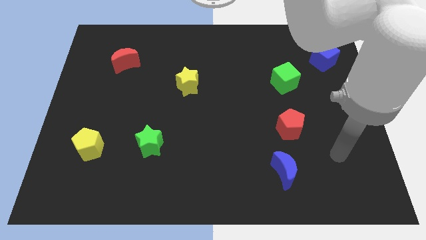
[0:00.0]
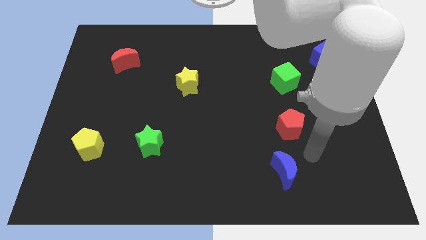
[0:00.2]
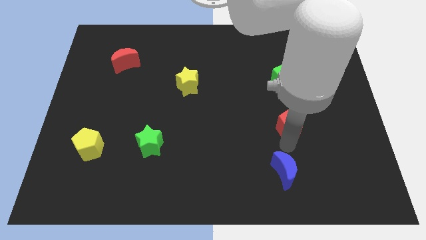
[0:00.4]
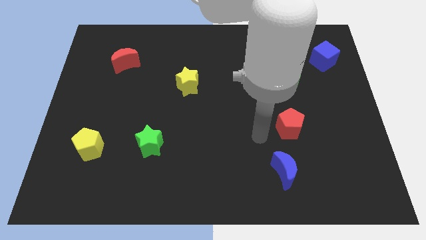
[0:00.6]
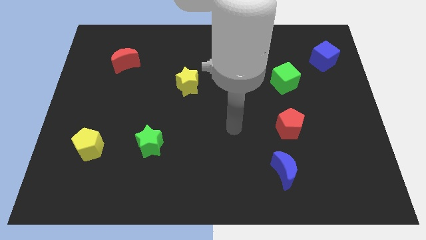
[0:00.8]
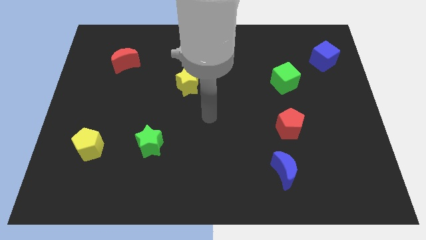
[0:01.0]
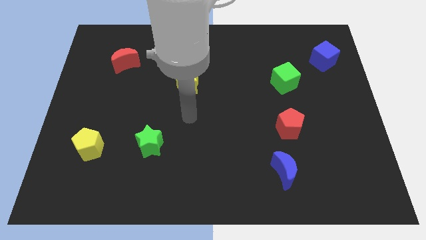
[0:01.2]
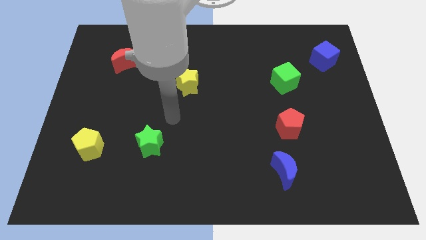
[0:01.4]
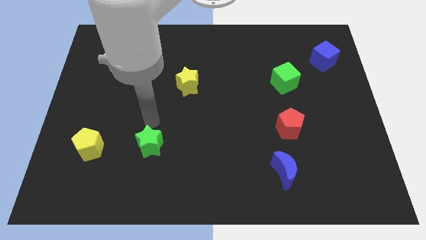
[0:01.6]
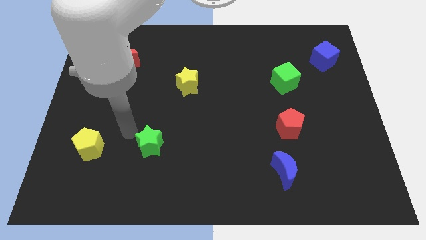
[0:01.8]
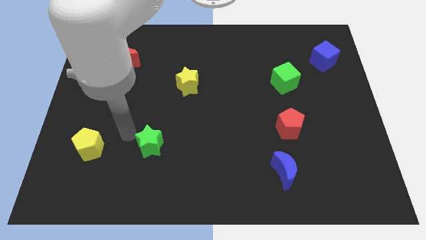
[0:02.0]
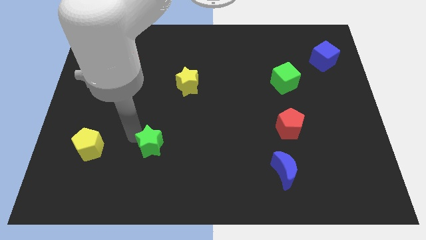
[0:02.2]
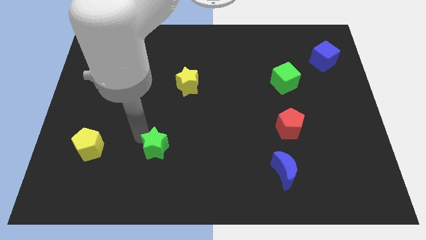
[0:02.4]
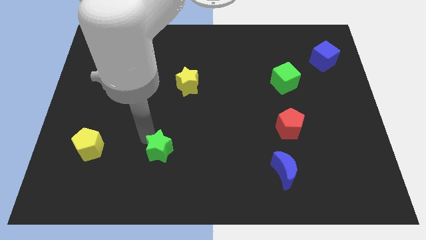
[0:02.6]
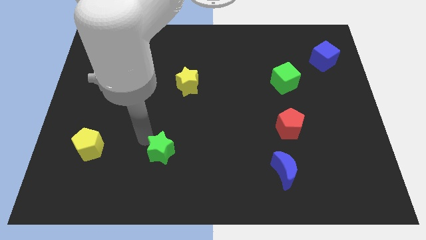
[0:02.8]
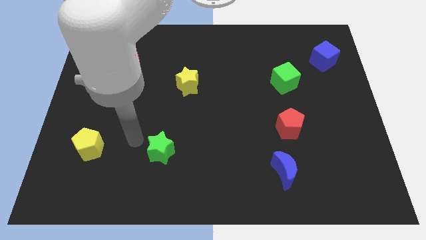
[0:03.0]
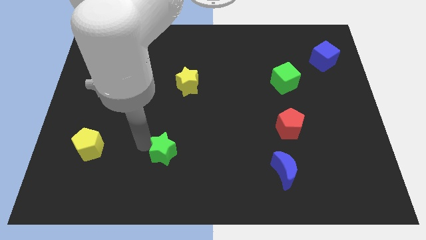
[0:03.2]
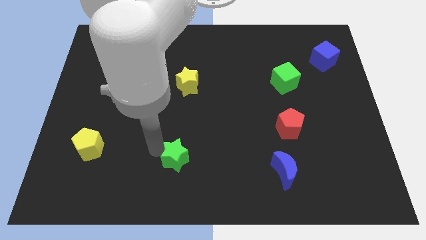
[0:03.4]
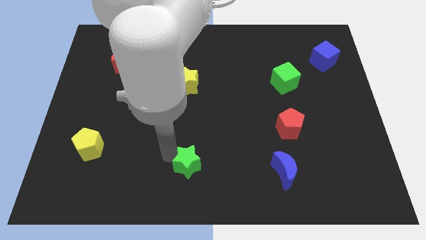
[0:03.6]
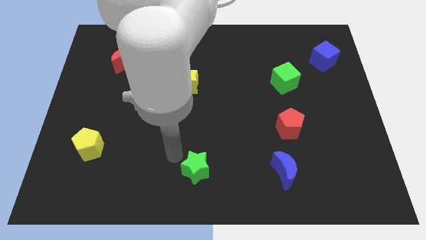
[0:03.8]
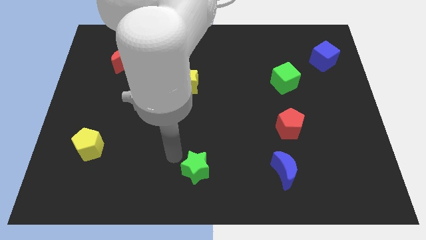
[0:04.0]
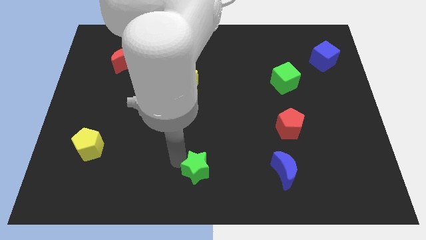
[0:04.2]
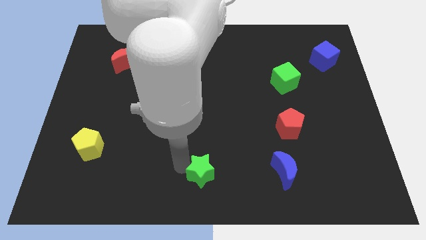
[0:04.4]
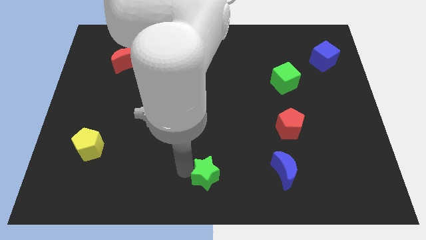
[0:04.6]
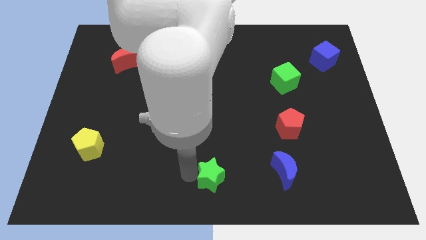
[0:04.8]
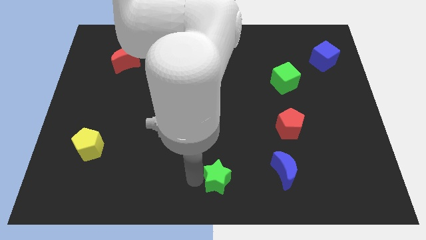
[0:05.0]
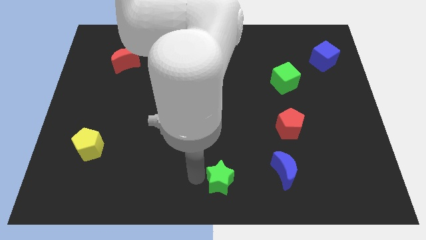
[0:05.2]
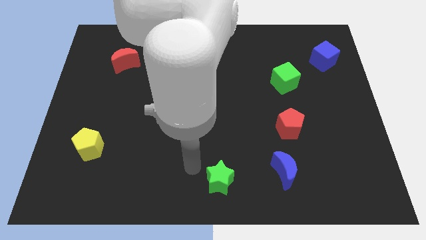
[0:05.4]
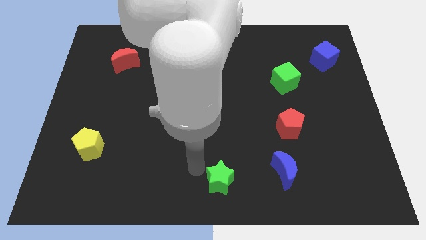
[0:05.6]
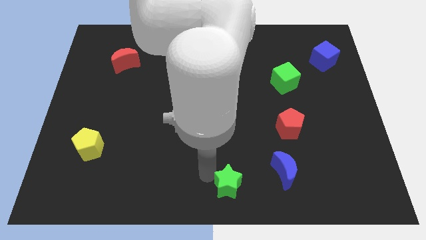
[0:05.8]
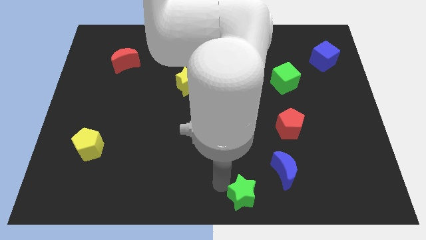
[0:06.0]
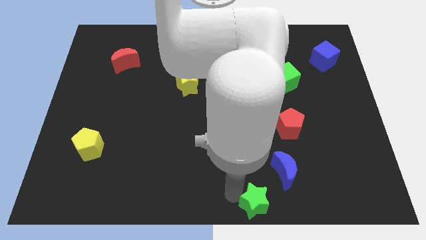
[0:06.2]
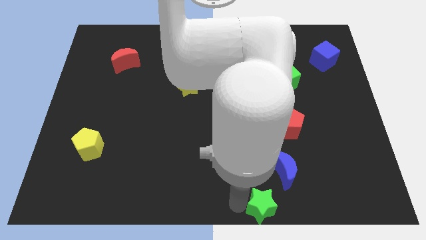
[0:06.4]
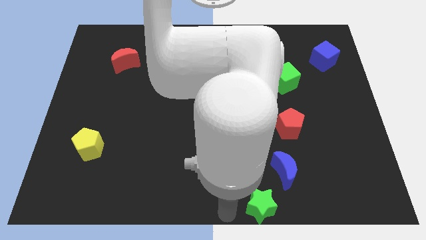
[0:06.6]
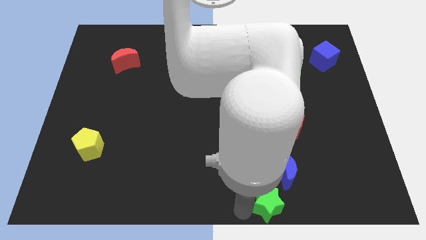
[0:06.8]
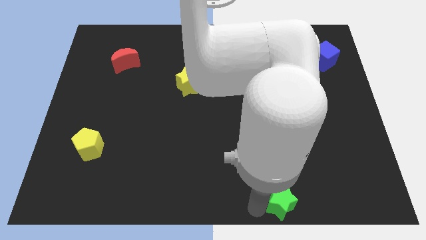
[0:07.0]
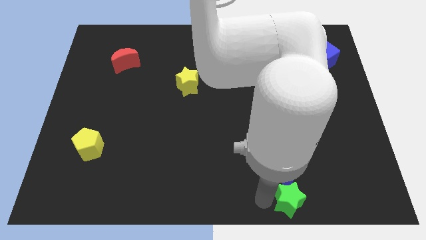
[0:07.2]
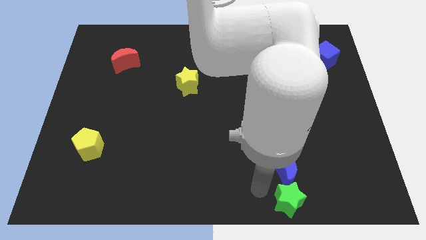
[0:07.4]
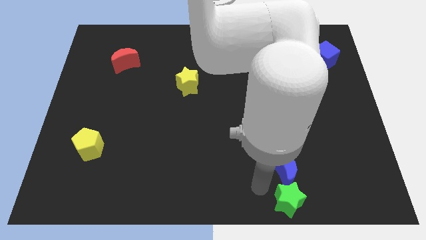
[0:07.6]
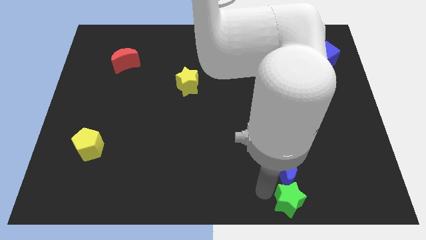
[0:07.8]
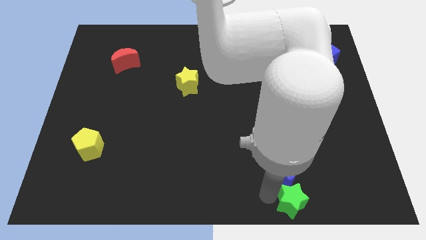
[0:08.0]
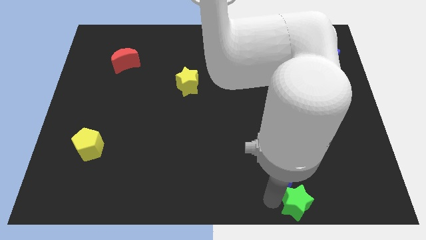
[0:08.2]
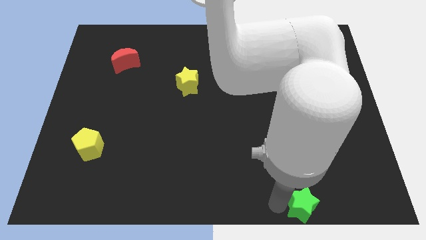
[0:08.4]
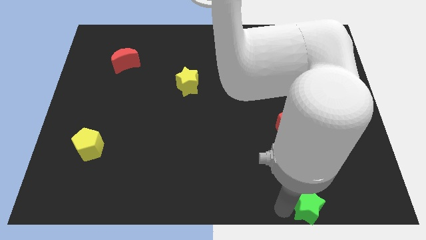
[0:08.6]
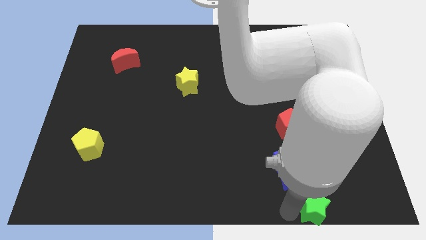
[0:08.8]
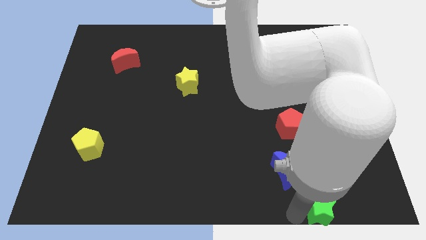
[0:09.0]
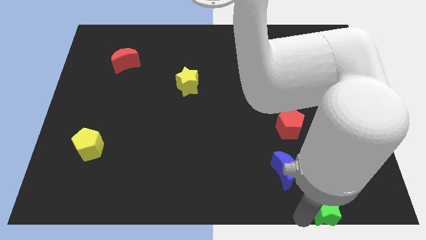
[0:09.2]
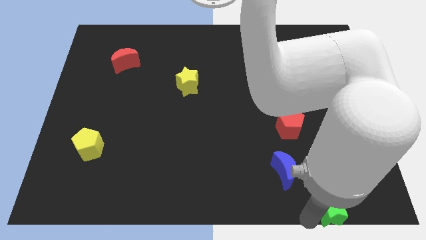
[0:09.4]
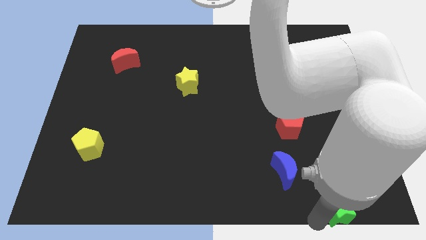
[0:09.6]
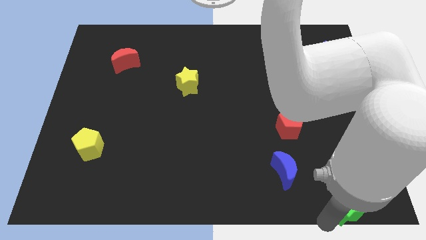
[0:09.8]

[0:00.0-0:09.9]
put the green star to the bottom right of the board

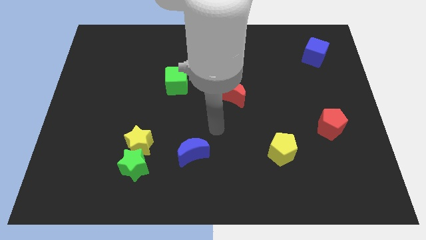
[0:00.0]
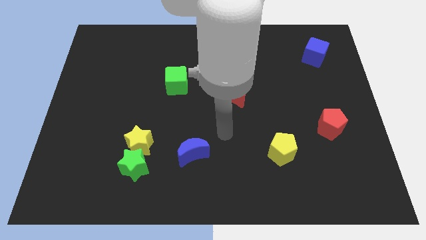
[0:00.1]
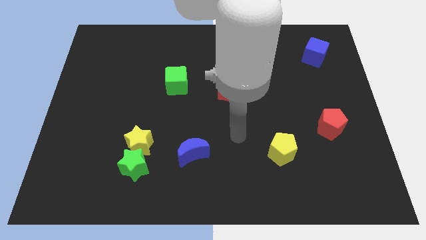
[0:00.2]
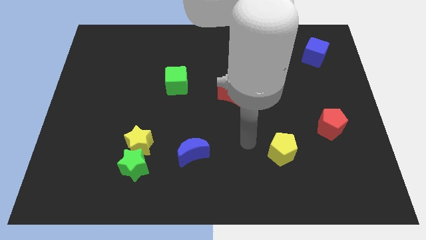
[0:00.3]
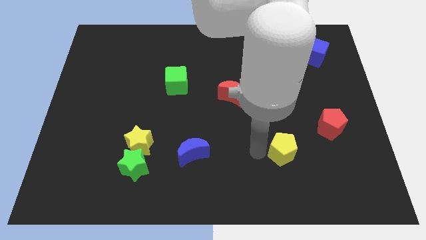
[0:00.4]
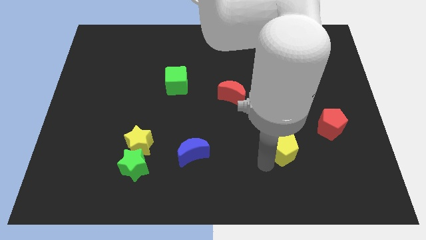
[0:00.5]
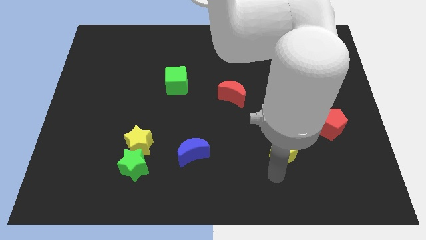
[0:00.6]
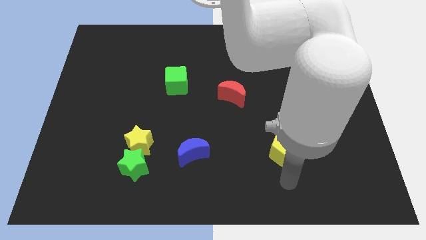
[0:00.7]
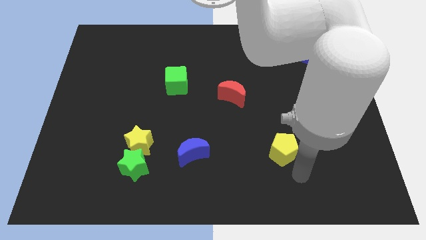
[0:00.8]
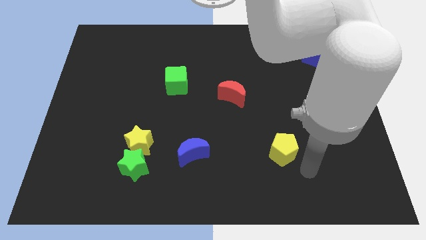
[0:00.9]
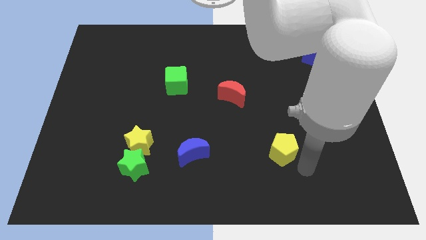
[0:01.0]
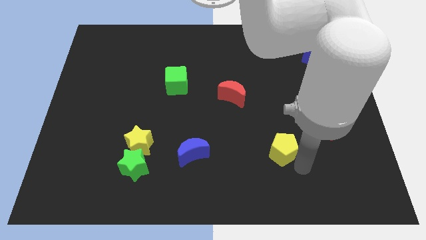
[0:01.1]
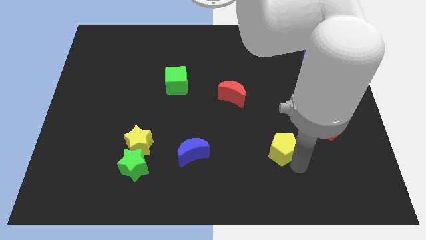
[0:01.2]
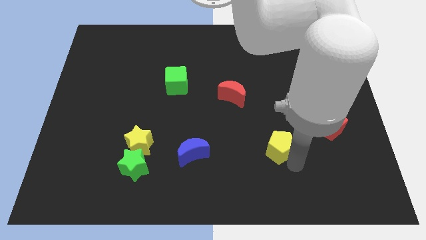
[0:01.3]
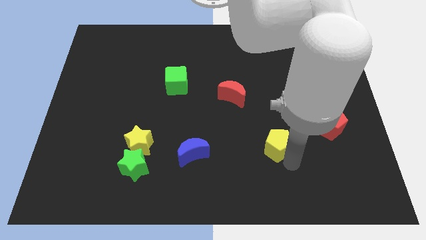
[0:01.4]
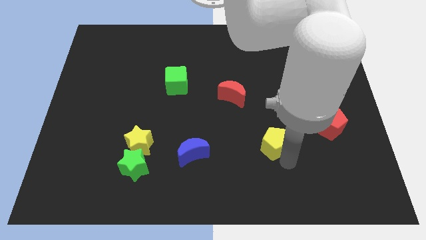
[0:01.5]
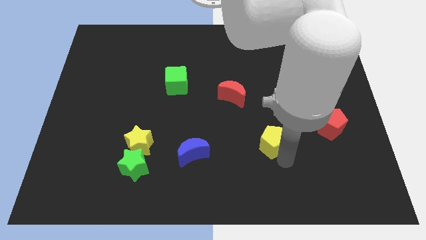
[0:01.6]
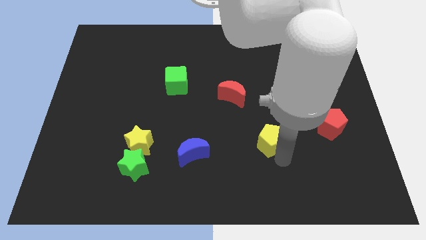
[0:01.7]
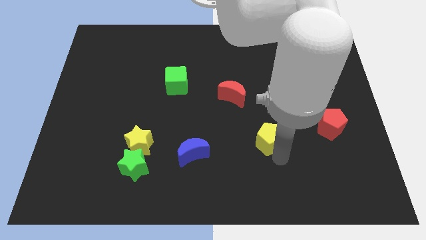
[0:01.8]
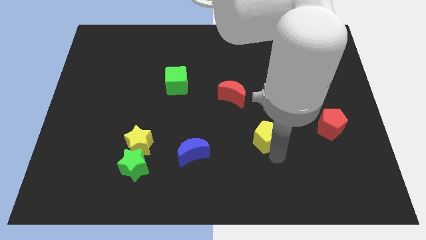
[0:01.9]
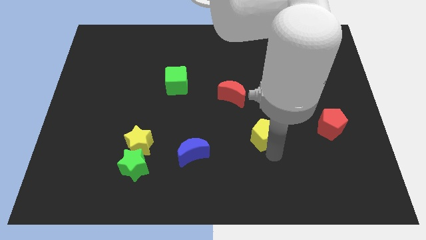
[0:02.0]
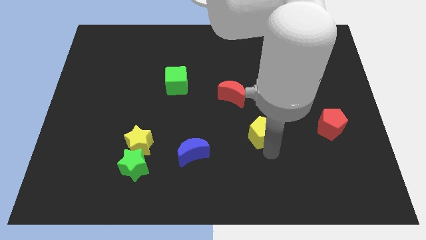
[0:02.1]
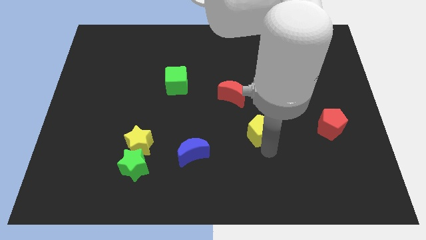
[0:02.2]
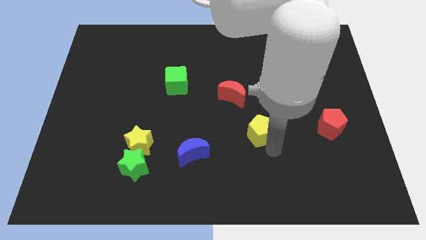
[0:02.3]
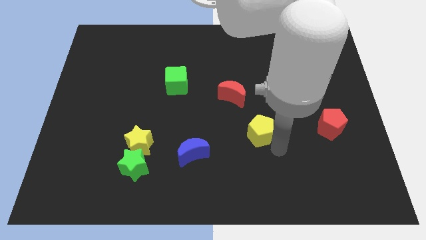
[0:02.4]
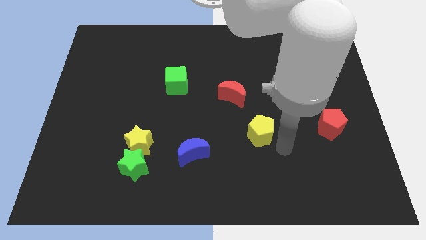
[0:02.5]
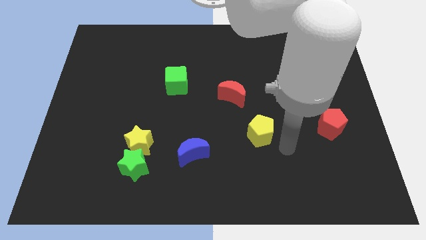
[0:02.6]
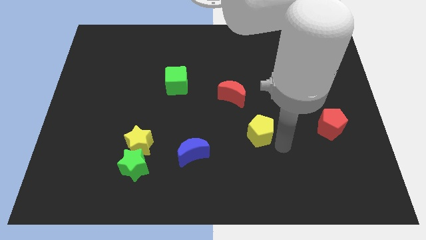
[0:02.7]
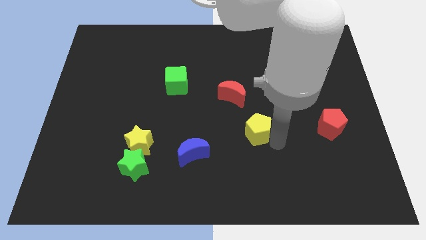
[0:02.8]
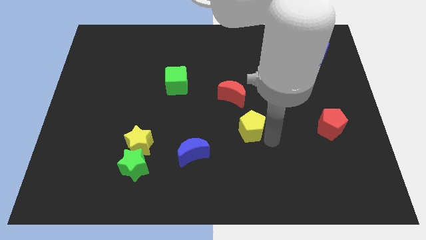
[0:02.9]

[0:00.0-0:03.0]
push the yellow pentagon to the center

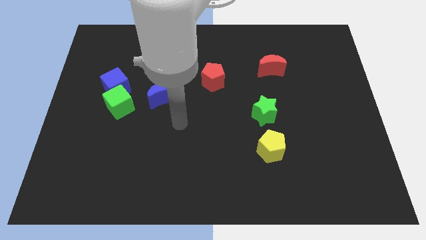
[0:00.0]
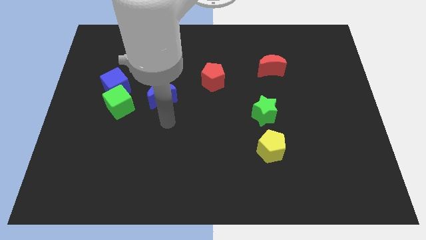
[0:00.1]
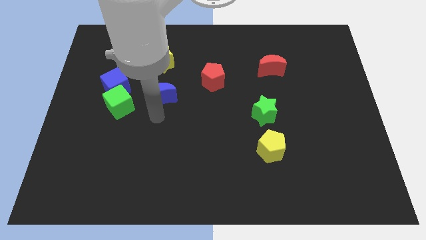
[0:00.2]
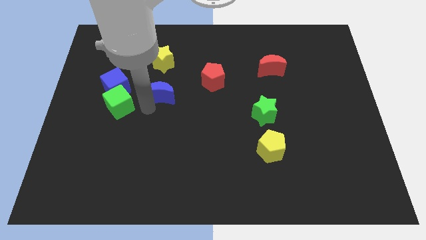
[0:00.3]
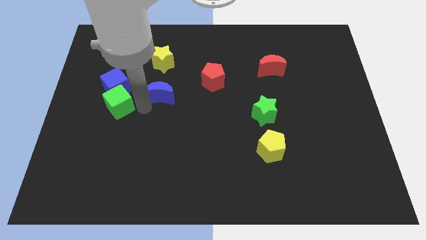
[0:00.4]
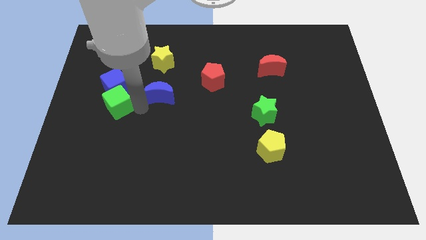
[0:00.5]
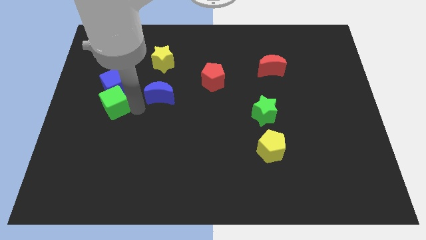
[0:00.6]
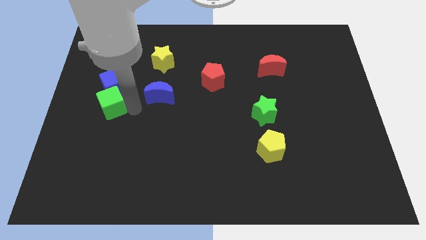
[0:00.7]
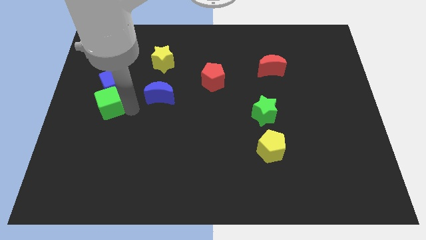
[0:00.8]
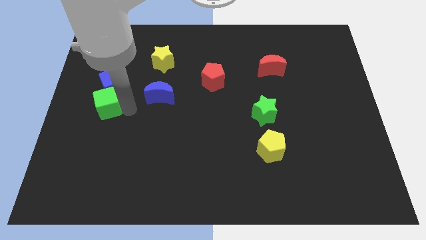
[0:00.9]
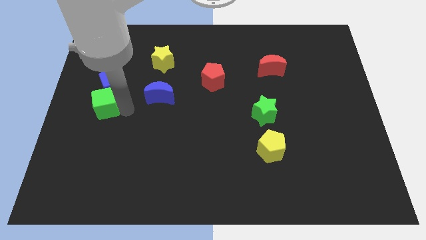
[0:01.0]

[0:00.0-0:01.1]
push the green cube to the center left
